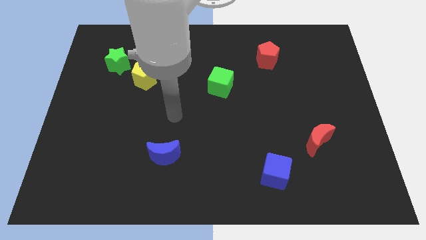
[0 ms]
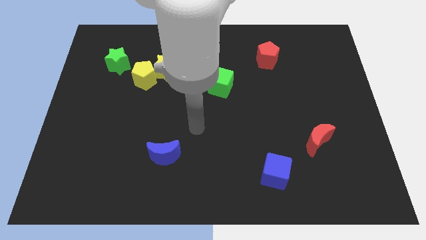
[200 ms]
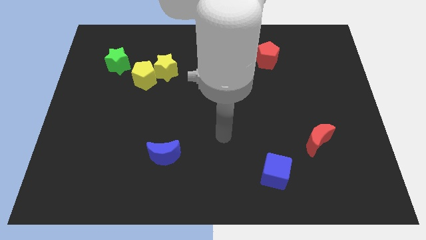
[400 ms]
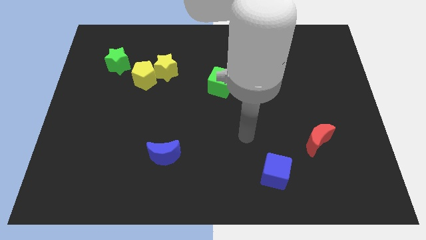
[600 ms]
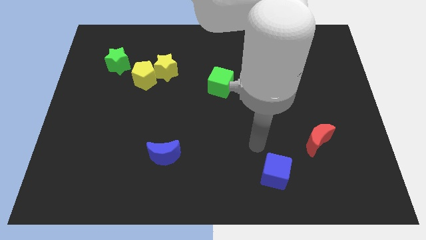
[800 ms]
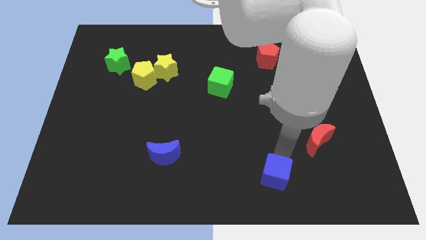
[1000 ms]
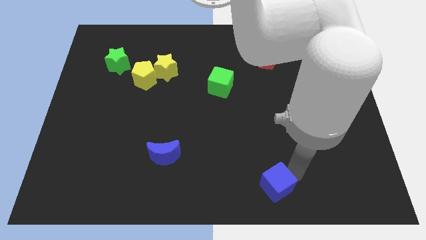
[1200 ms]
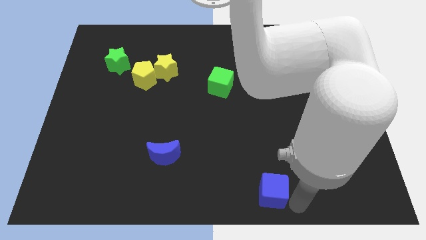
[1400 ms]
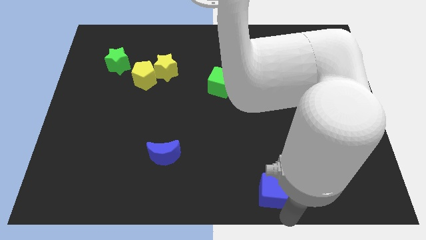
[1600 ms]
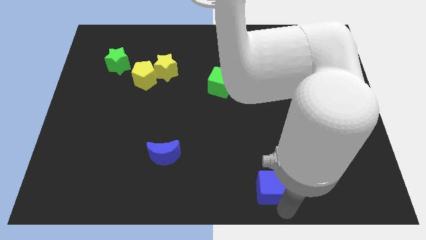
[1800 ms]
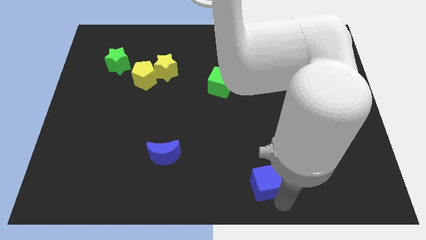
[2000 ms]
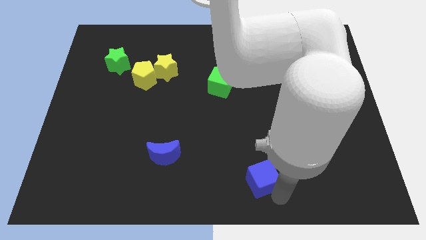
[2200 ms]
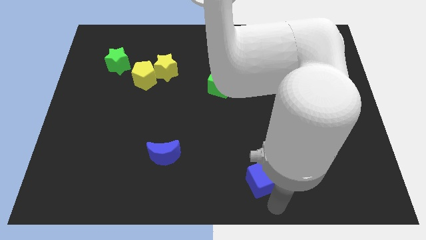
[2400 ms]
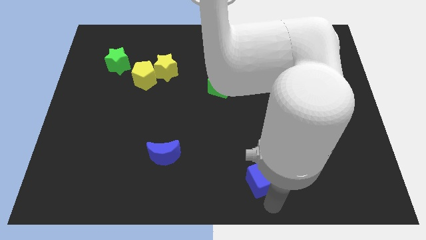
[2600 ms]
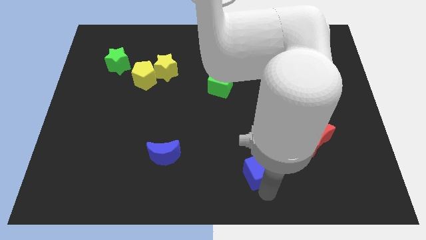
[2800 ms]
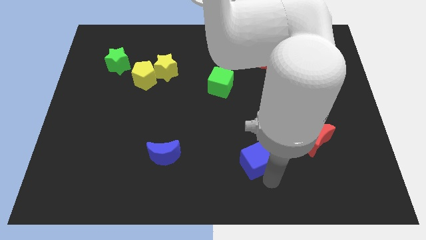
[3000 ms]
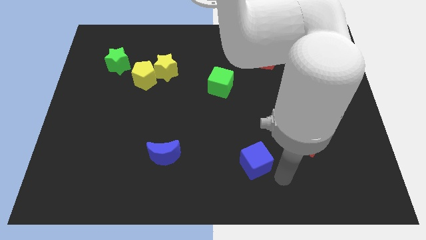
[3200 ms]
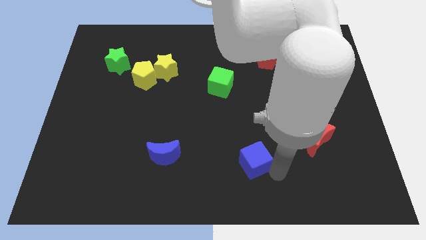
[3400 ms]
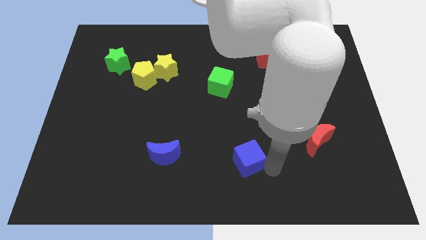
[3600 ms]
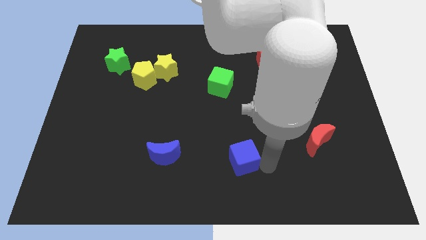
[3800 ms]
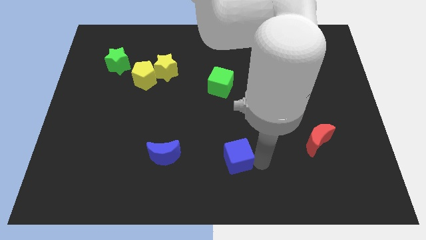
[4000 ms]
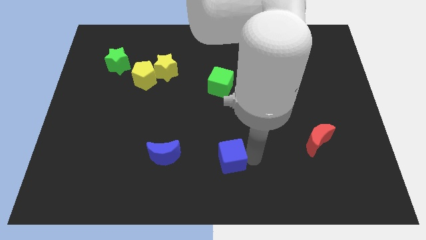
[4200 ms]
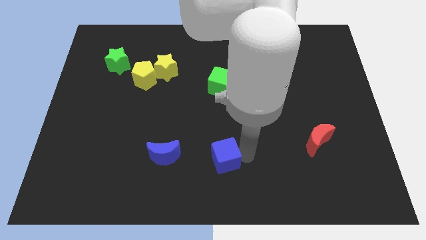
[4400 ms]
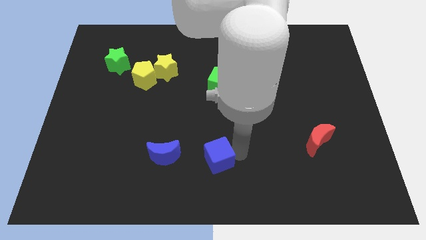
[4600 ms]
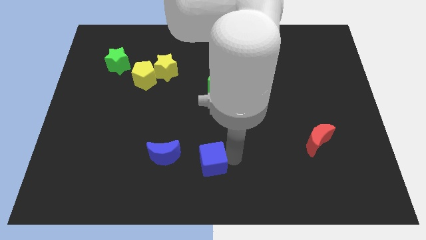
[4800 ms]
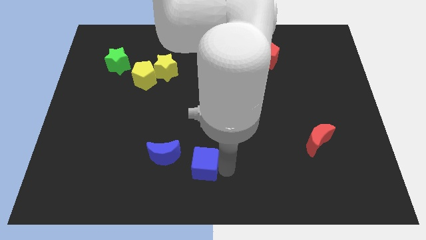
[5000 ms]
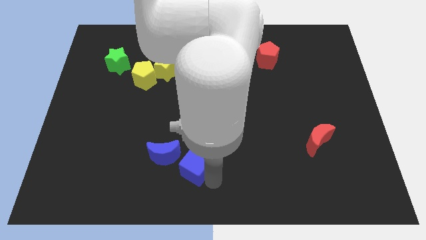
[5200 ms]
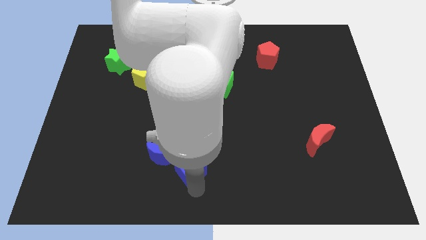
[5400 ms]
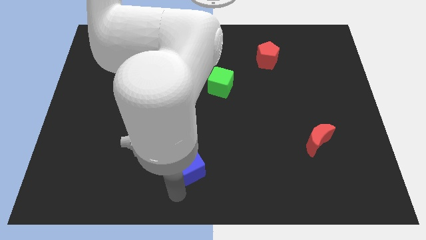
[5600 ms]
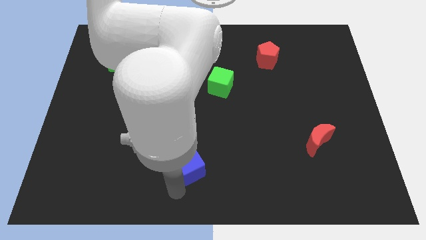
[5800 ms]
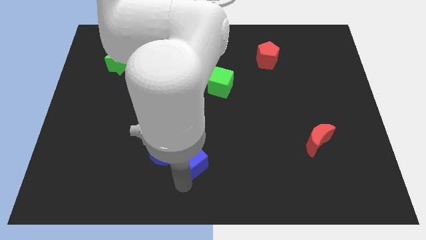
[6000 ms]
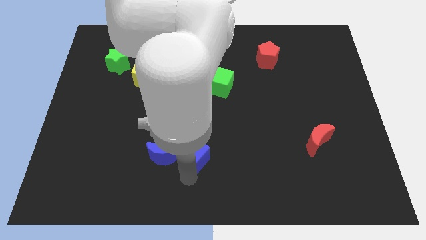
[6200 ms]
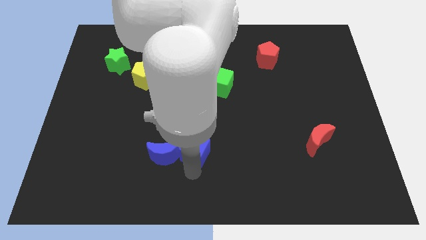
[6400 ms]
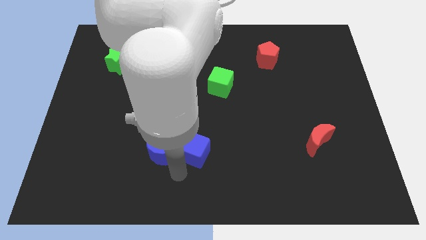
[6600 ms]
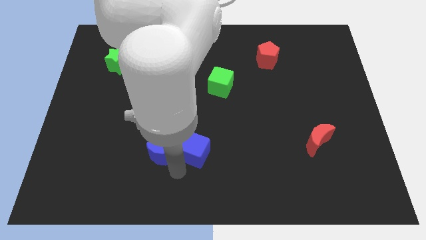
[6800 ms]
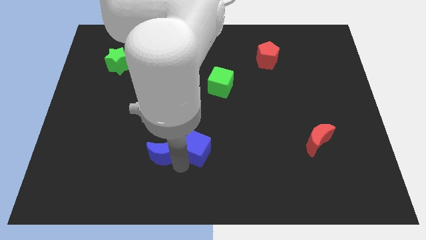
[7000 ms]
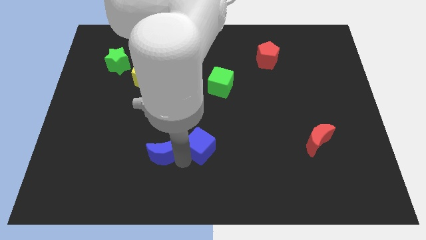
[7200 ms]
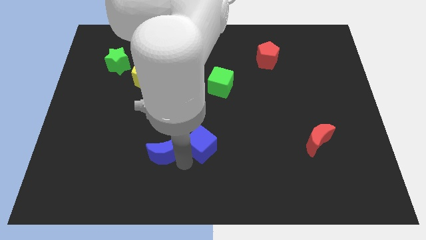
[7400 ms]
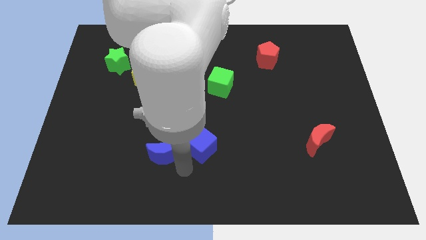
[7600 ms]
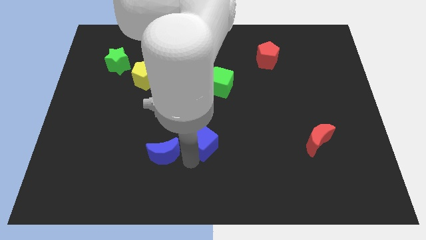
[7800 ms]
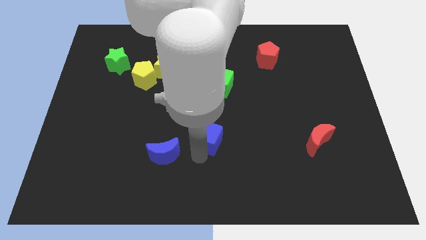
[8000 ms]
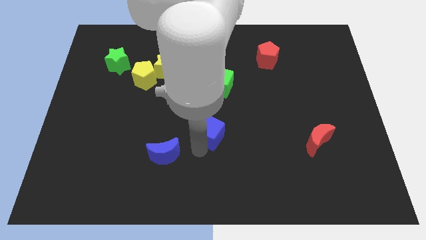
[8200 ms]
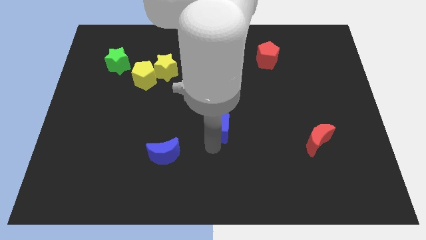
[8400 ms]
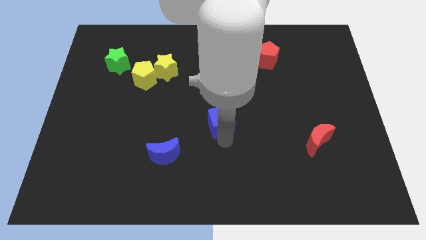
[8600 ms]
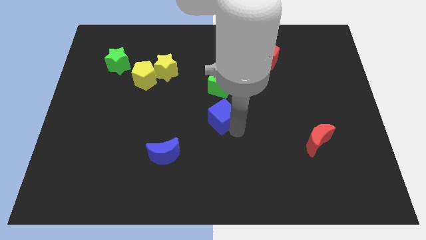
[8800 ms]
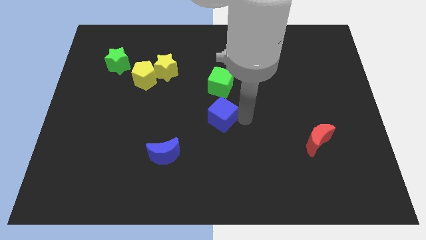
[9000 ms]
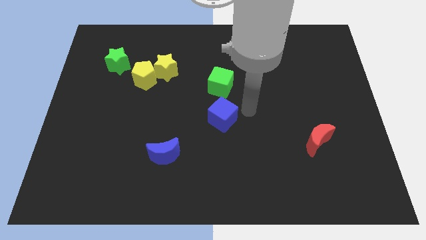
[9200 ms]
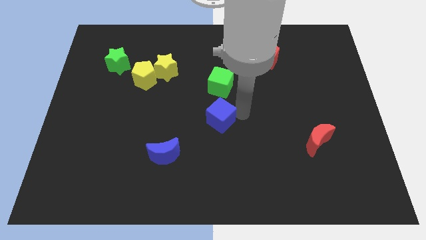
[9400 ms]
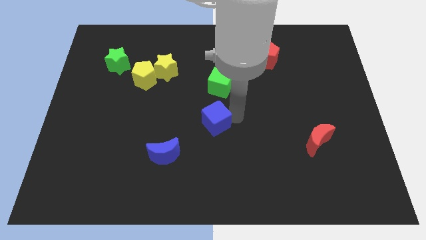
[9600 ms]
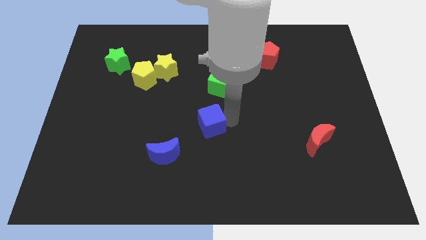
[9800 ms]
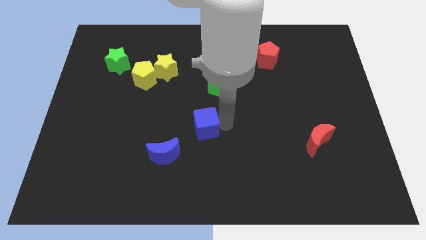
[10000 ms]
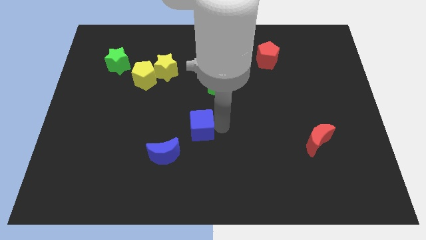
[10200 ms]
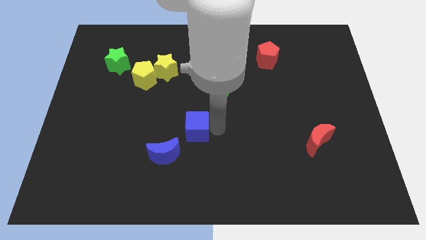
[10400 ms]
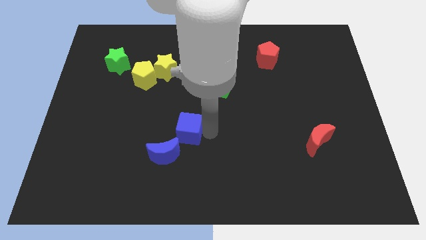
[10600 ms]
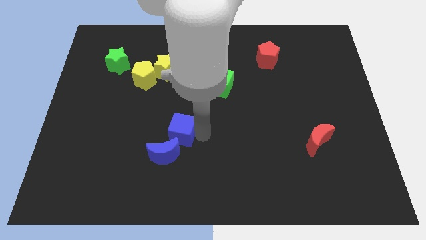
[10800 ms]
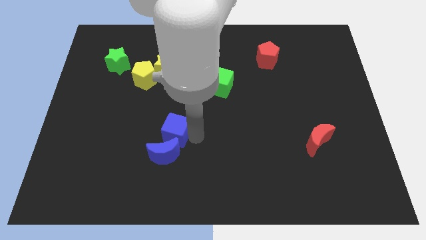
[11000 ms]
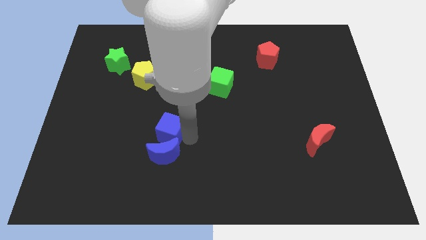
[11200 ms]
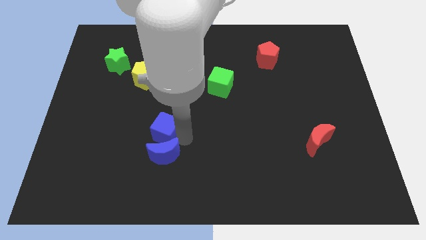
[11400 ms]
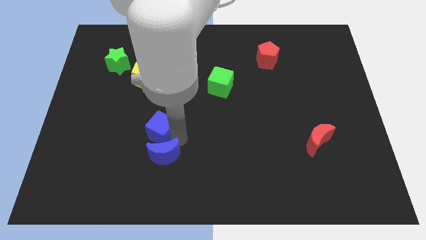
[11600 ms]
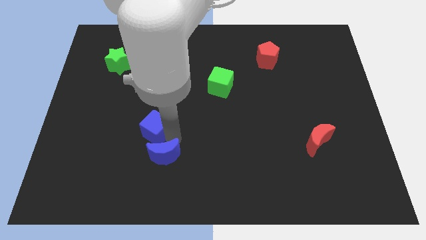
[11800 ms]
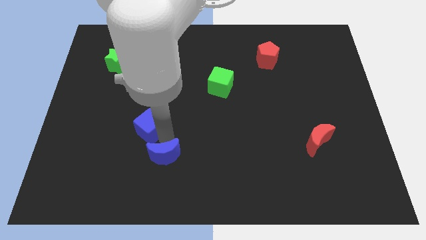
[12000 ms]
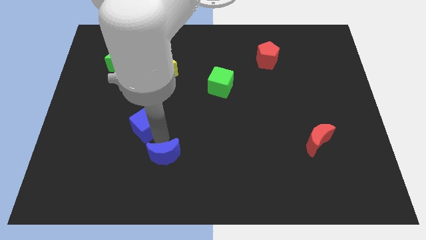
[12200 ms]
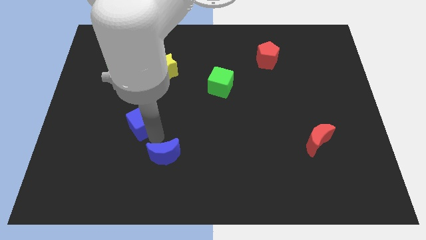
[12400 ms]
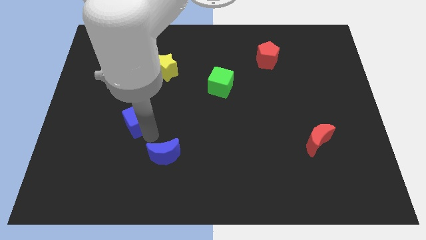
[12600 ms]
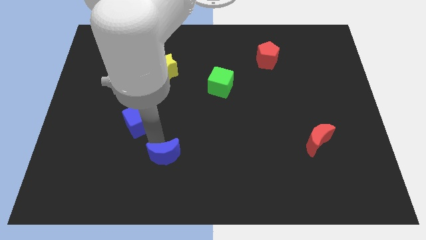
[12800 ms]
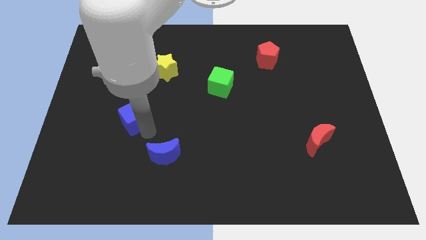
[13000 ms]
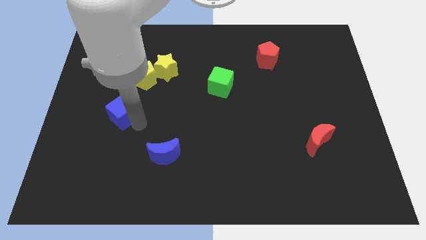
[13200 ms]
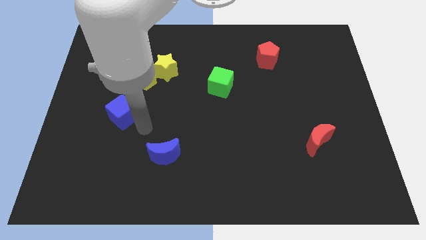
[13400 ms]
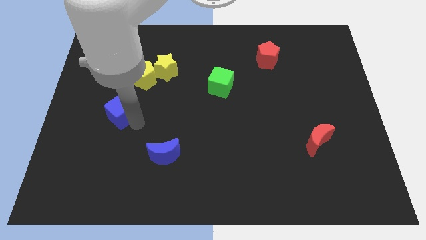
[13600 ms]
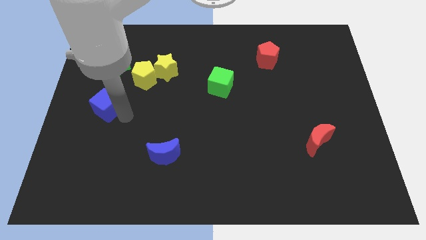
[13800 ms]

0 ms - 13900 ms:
move the blue cube to the left side of the board
